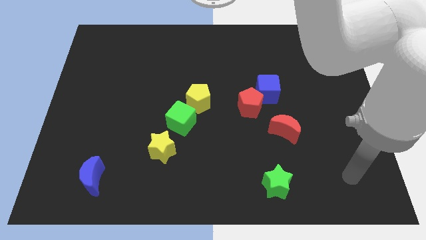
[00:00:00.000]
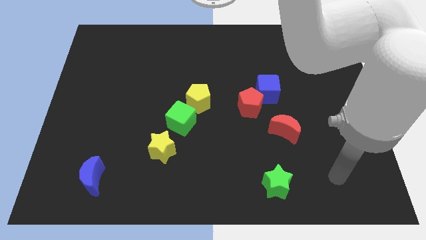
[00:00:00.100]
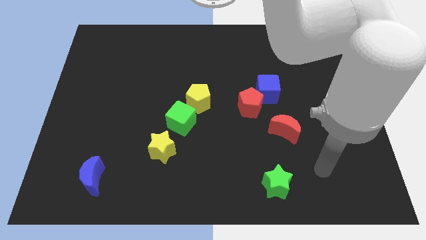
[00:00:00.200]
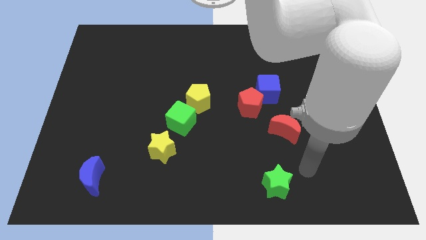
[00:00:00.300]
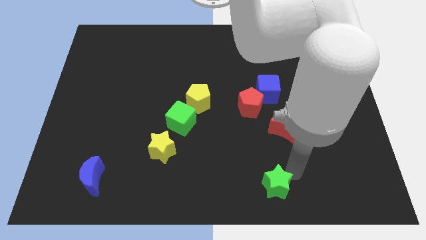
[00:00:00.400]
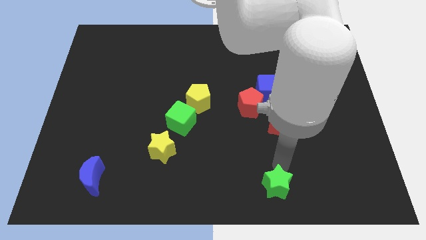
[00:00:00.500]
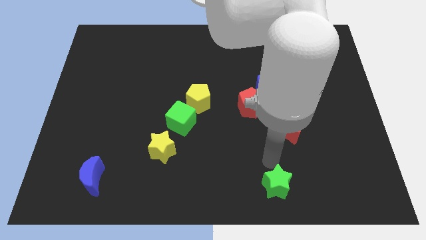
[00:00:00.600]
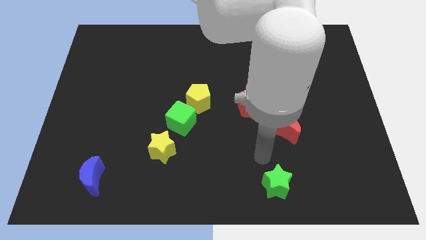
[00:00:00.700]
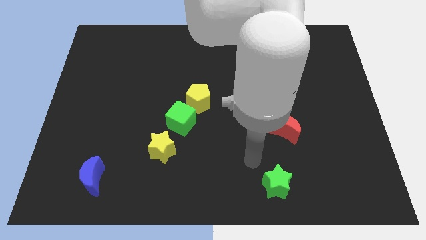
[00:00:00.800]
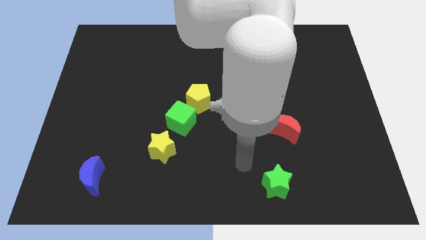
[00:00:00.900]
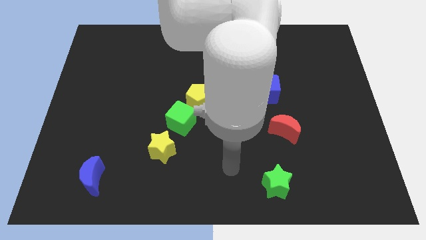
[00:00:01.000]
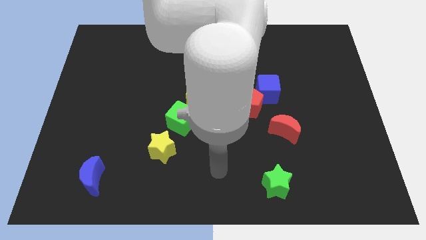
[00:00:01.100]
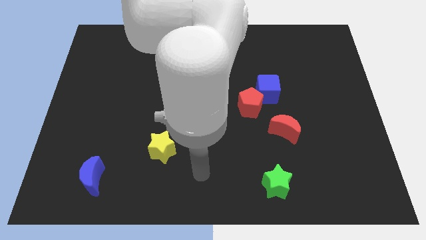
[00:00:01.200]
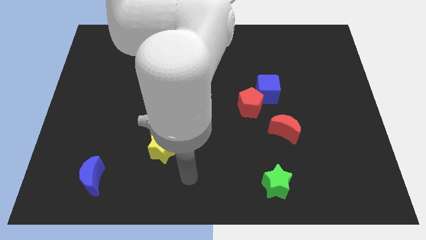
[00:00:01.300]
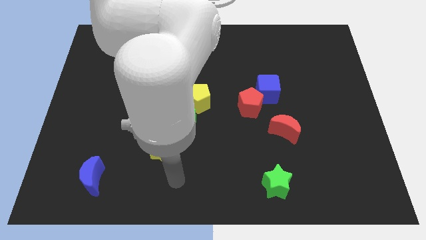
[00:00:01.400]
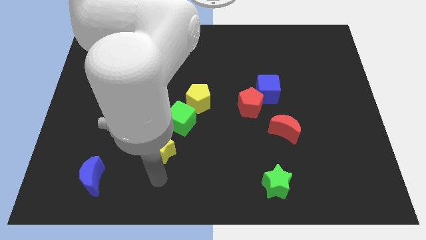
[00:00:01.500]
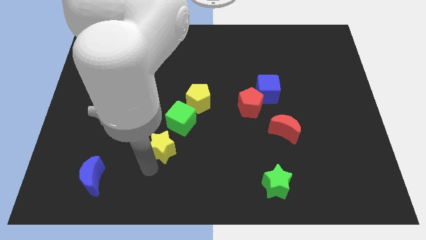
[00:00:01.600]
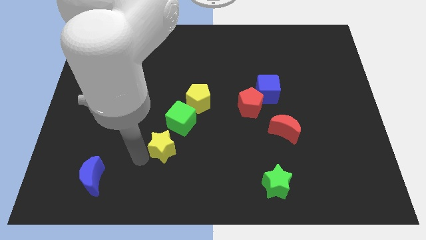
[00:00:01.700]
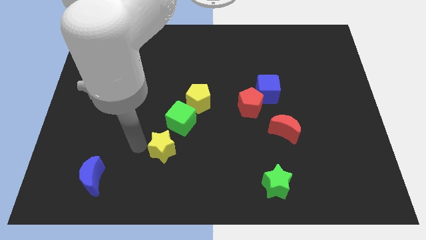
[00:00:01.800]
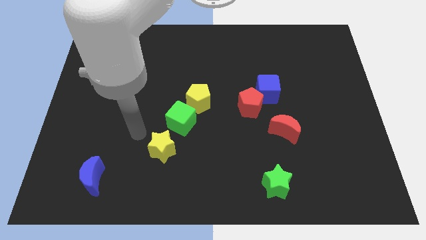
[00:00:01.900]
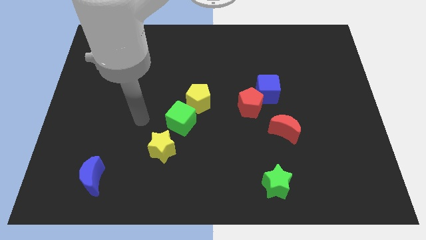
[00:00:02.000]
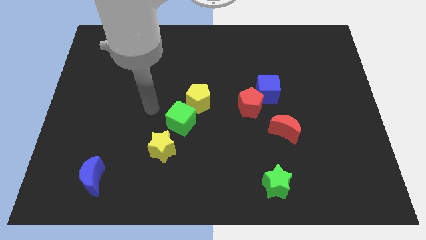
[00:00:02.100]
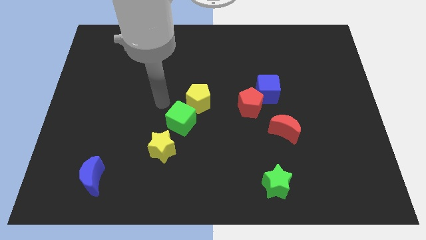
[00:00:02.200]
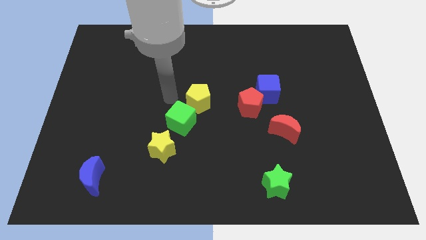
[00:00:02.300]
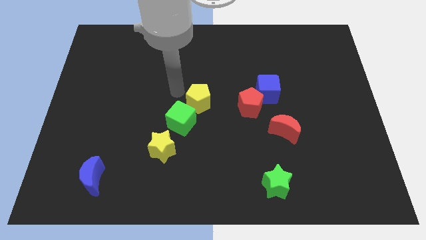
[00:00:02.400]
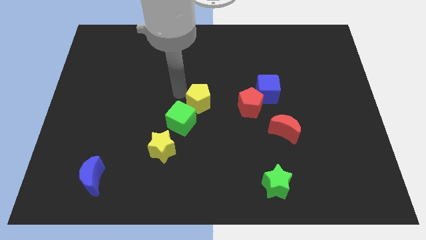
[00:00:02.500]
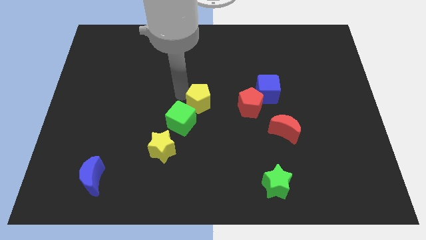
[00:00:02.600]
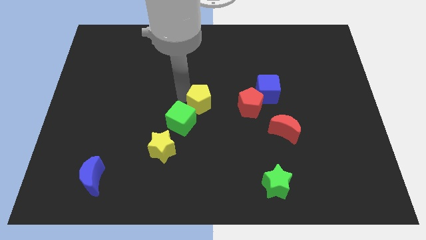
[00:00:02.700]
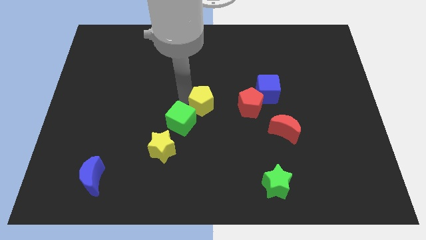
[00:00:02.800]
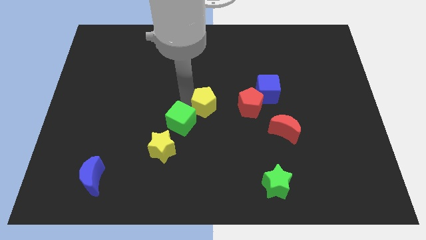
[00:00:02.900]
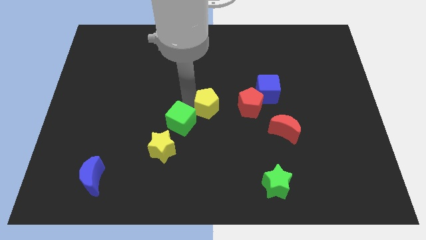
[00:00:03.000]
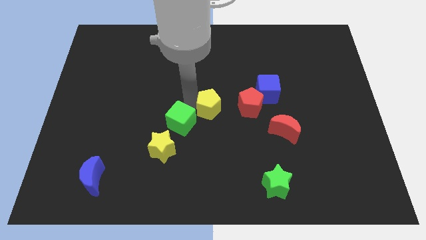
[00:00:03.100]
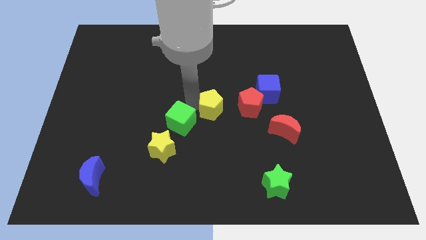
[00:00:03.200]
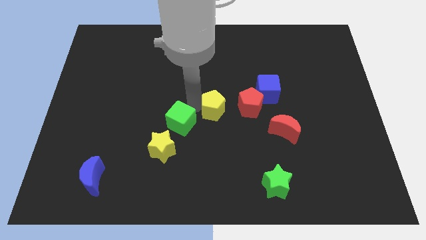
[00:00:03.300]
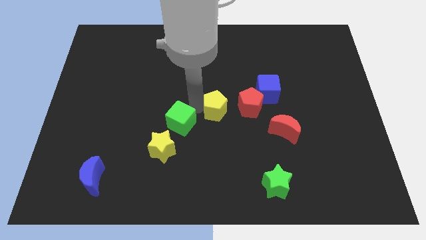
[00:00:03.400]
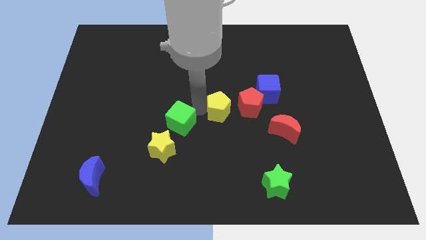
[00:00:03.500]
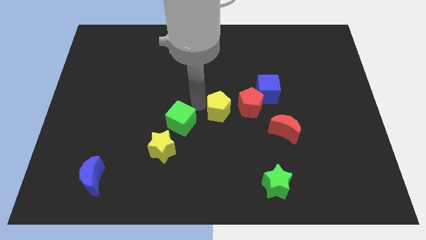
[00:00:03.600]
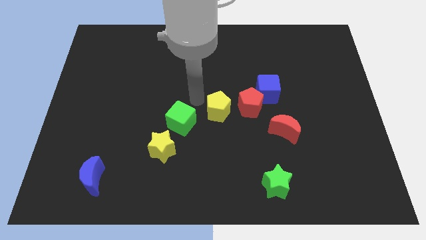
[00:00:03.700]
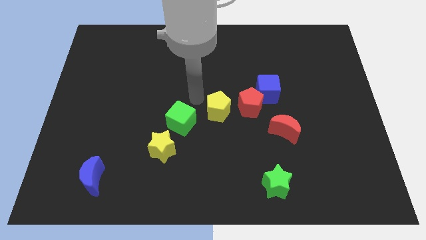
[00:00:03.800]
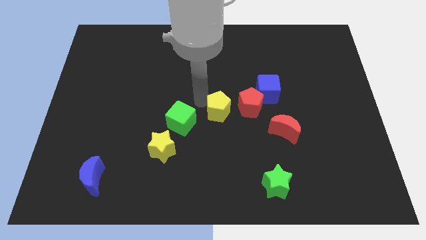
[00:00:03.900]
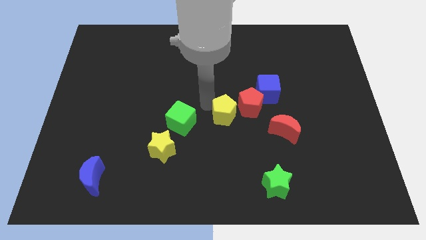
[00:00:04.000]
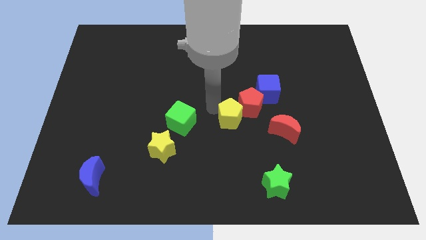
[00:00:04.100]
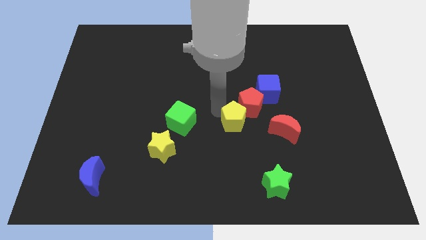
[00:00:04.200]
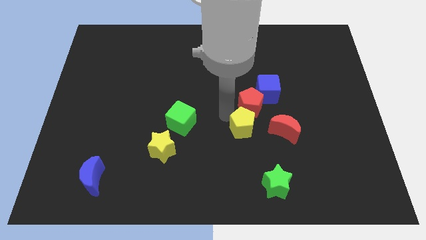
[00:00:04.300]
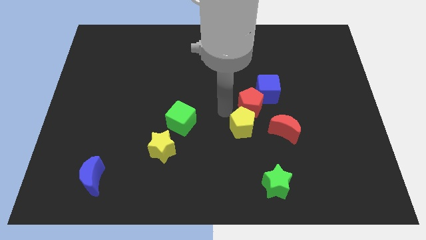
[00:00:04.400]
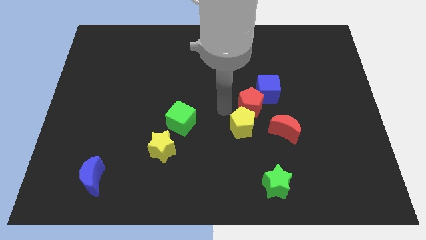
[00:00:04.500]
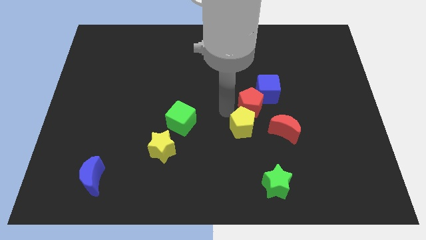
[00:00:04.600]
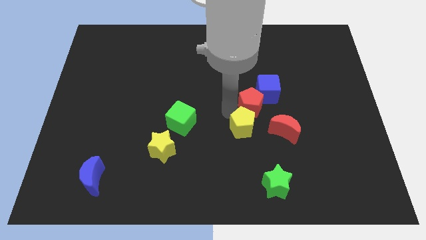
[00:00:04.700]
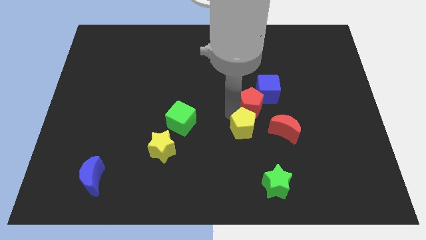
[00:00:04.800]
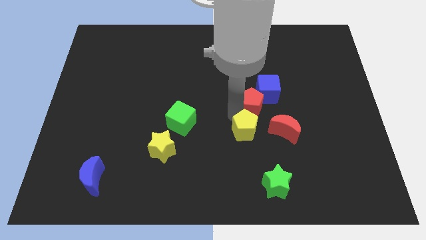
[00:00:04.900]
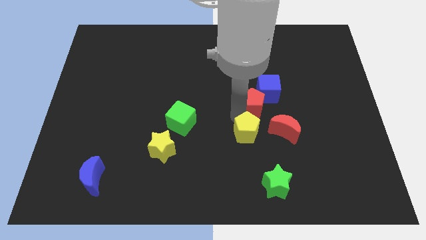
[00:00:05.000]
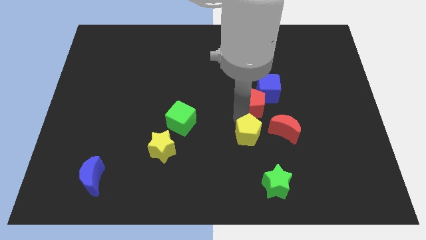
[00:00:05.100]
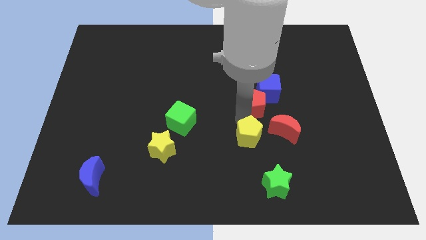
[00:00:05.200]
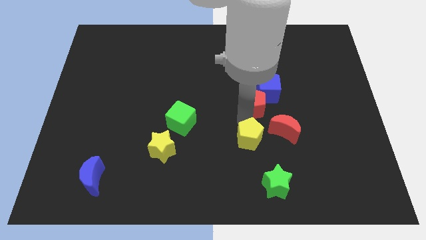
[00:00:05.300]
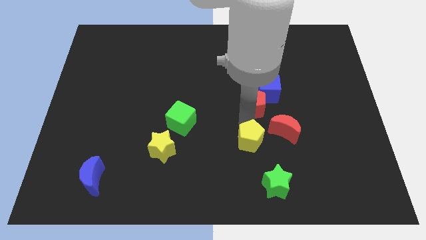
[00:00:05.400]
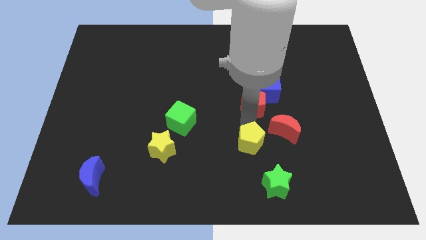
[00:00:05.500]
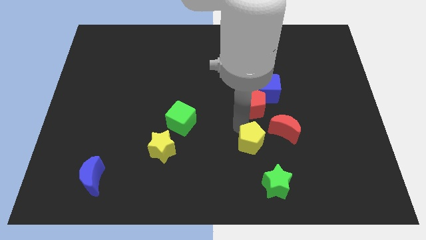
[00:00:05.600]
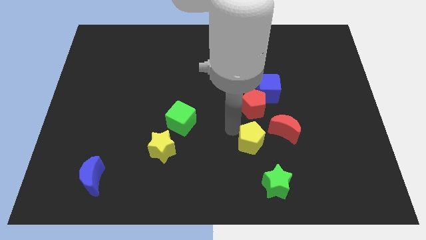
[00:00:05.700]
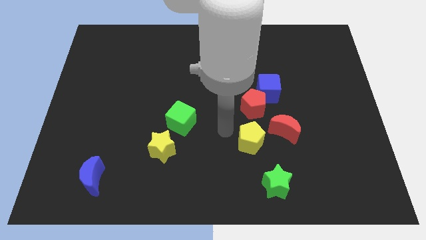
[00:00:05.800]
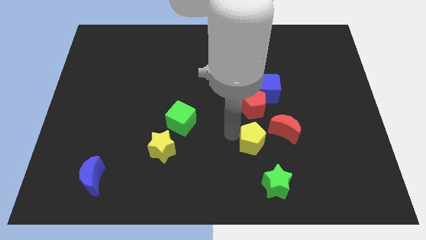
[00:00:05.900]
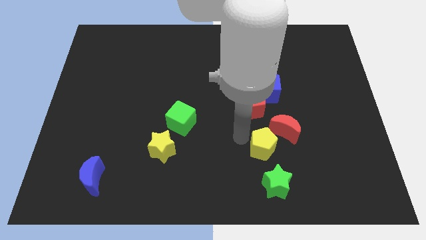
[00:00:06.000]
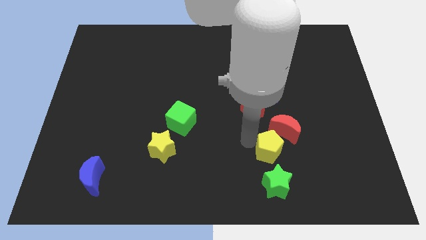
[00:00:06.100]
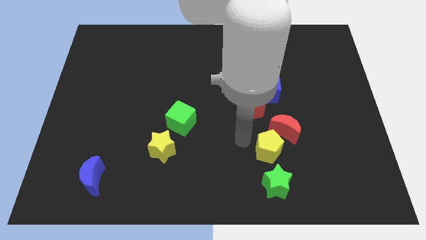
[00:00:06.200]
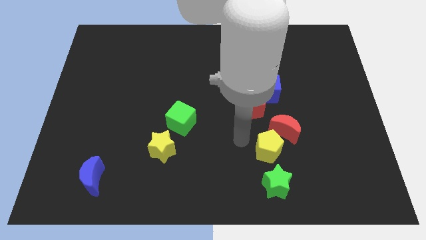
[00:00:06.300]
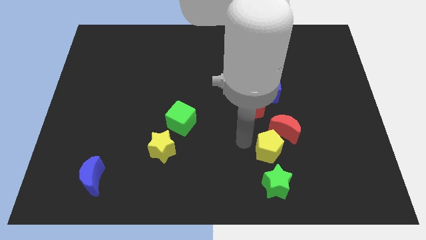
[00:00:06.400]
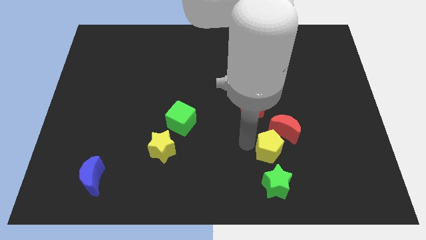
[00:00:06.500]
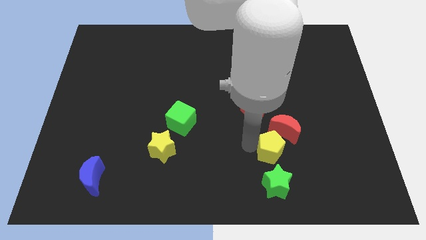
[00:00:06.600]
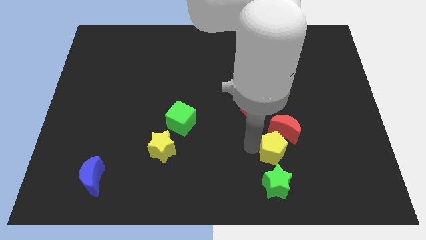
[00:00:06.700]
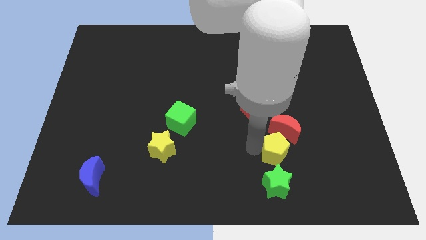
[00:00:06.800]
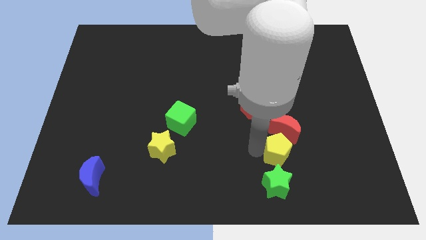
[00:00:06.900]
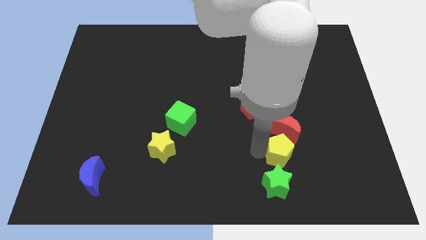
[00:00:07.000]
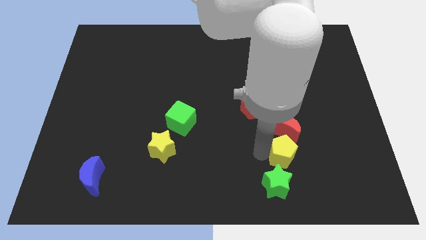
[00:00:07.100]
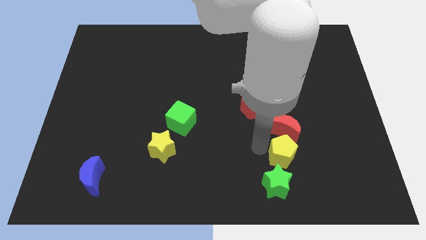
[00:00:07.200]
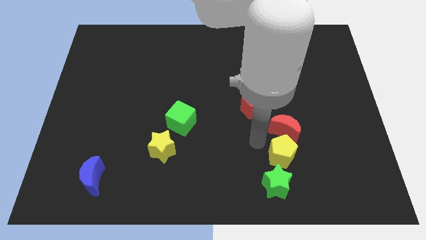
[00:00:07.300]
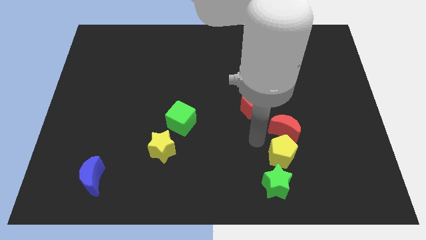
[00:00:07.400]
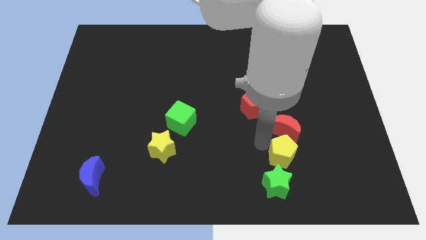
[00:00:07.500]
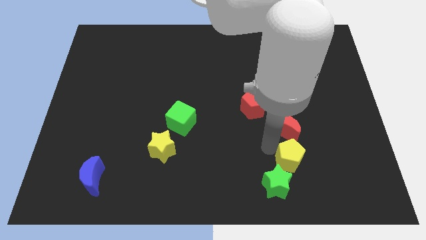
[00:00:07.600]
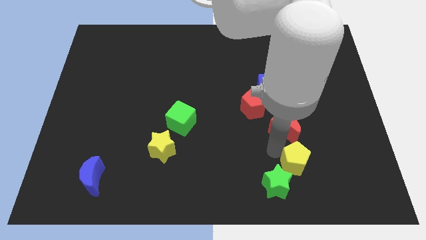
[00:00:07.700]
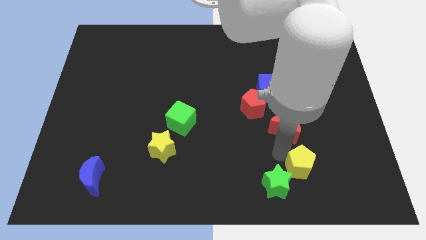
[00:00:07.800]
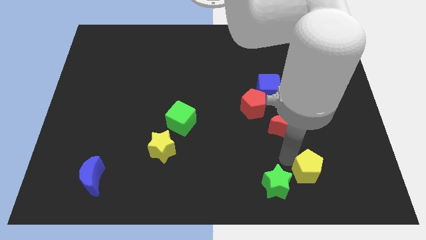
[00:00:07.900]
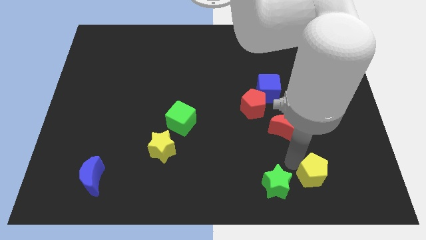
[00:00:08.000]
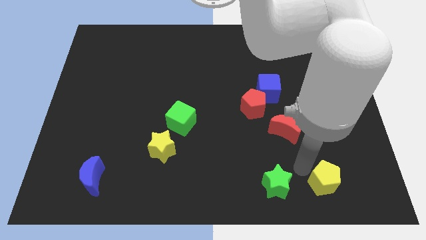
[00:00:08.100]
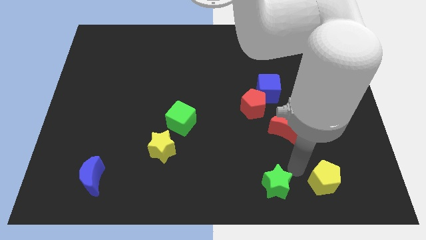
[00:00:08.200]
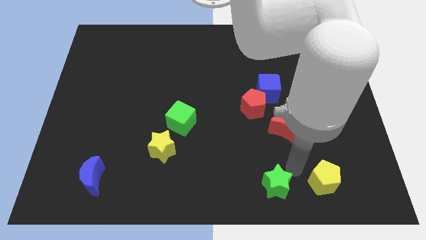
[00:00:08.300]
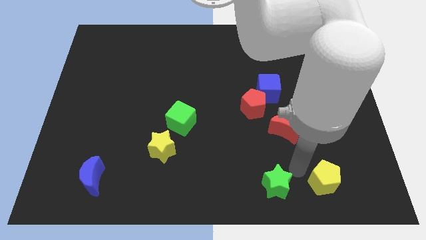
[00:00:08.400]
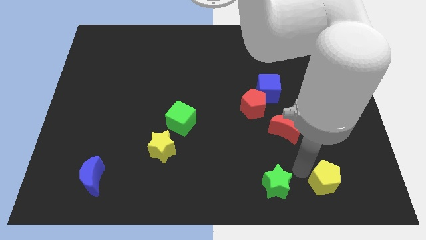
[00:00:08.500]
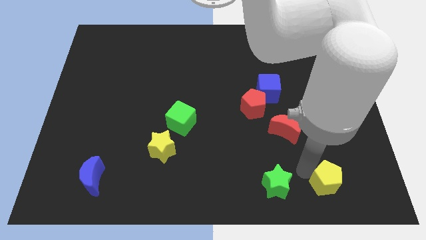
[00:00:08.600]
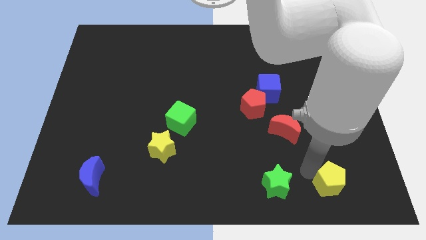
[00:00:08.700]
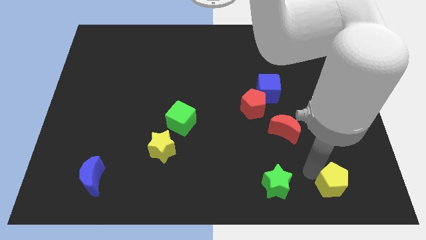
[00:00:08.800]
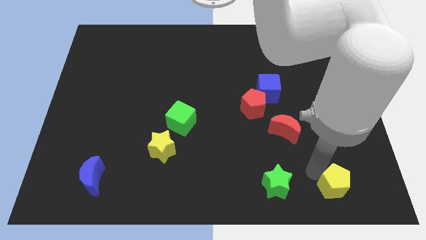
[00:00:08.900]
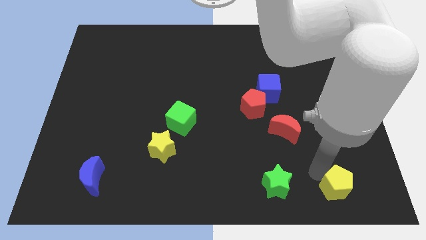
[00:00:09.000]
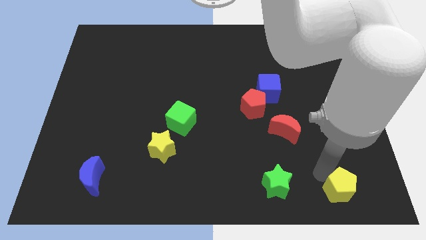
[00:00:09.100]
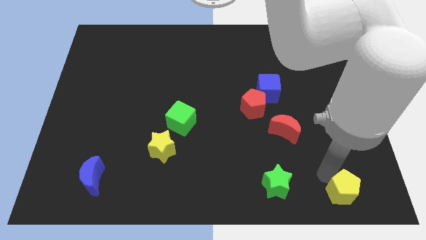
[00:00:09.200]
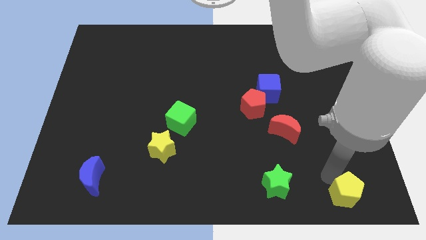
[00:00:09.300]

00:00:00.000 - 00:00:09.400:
put the yellow pentagon to the lower right corner
